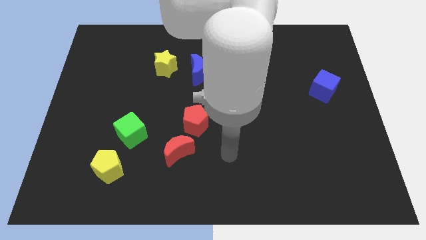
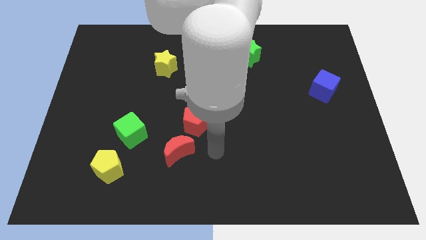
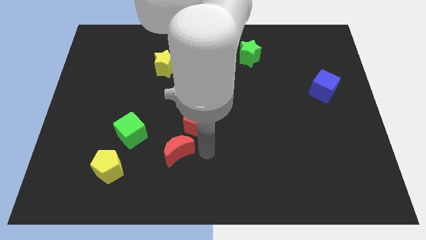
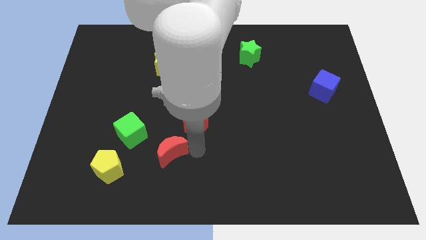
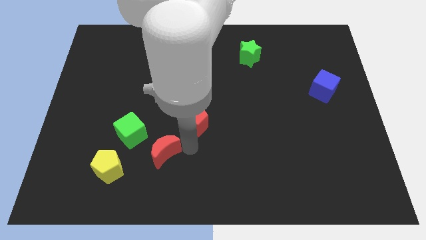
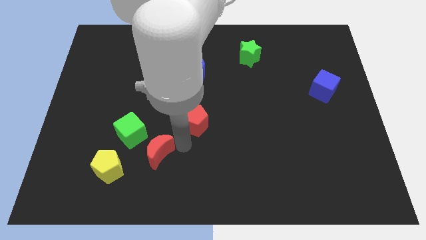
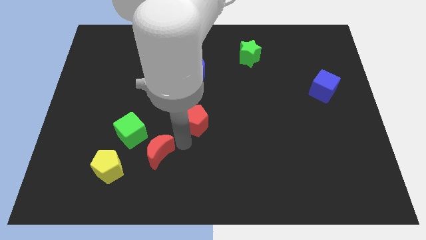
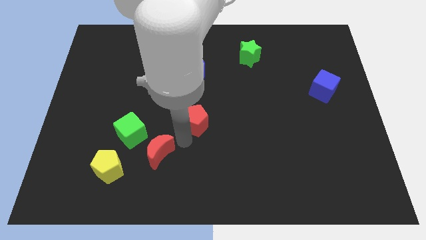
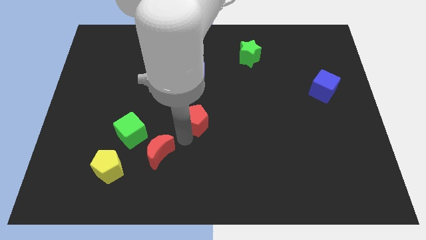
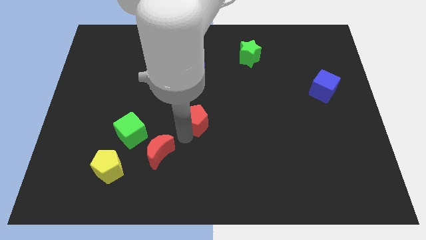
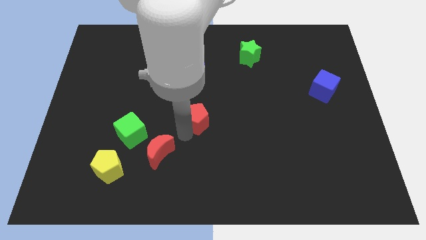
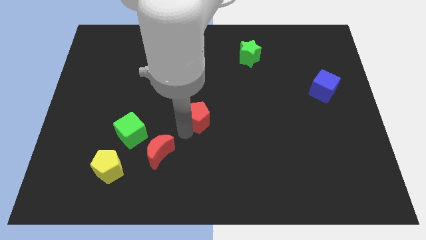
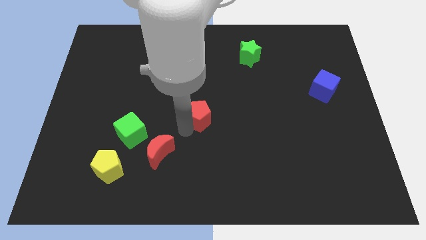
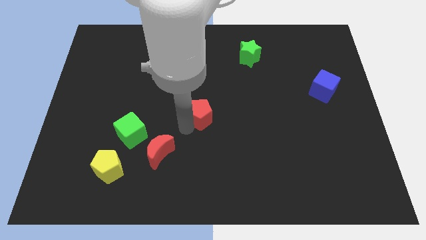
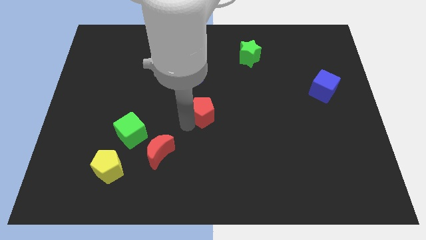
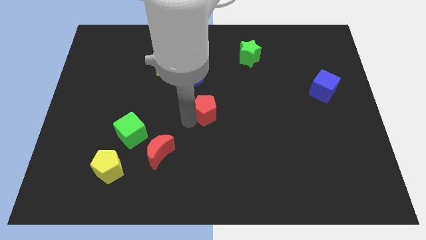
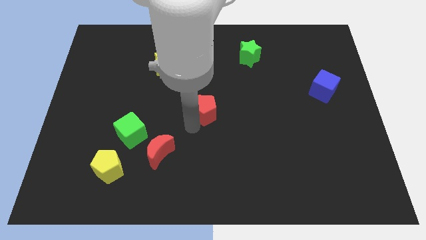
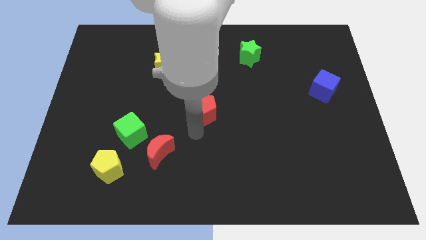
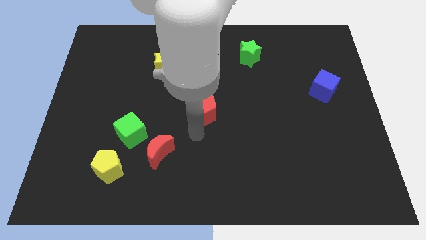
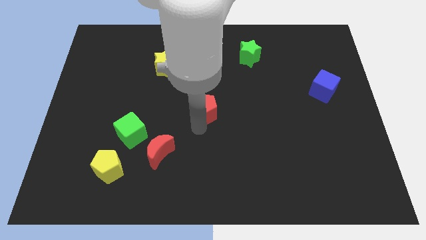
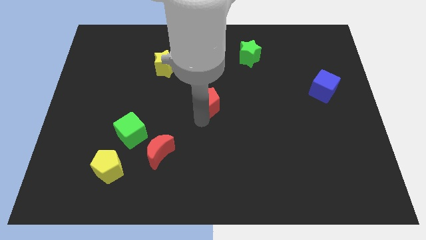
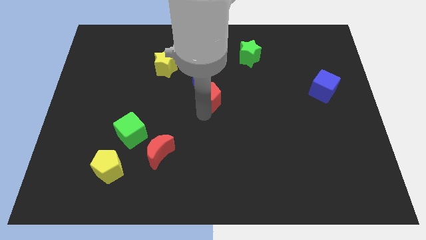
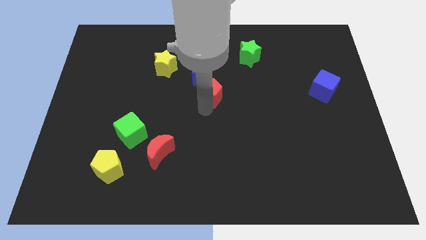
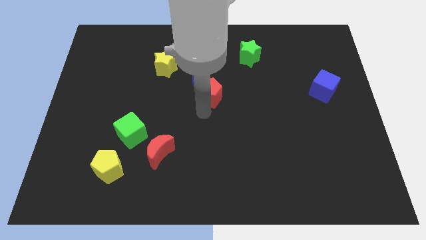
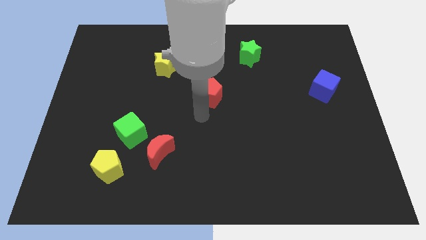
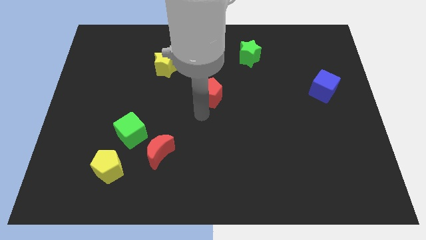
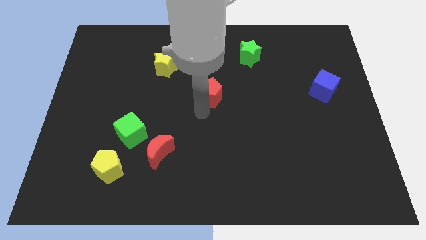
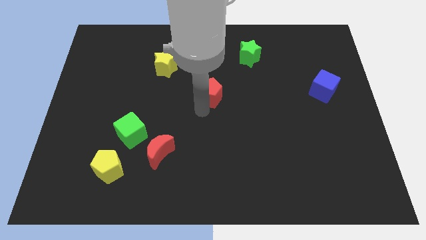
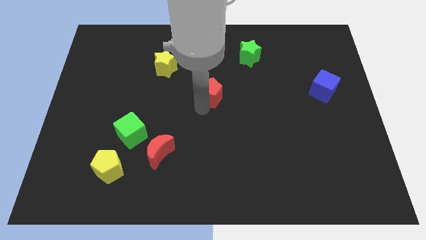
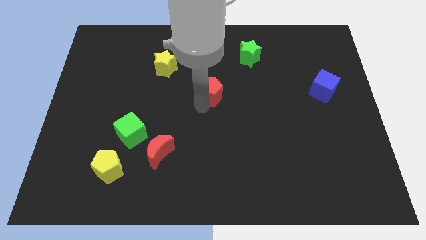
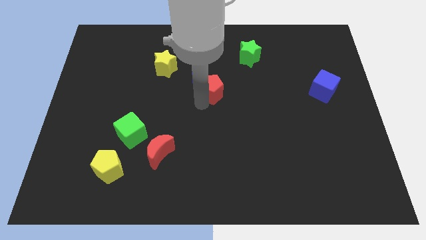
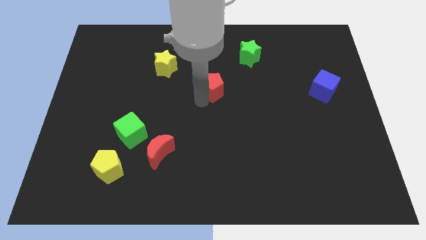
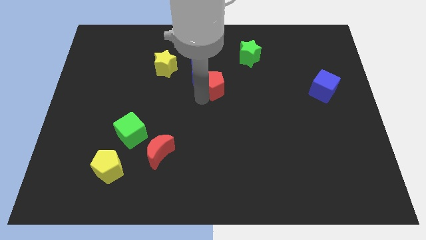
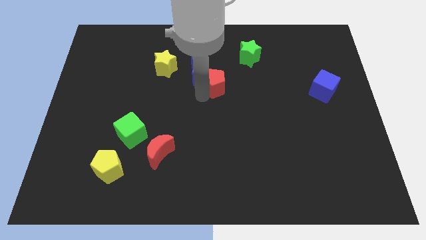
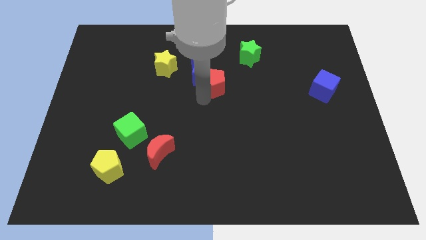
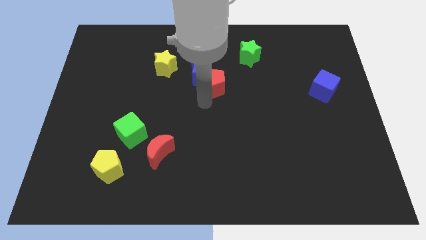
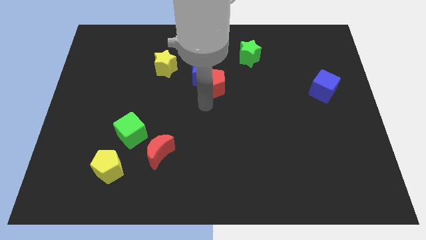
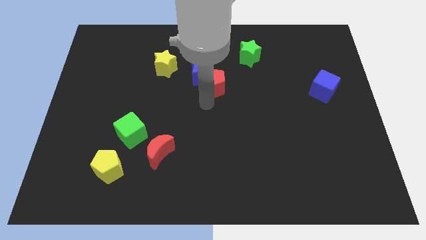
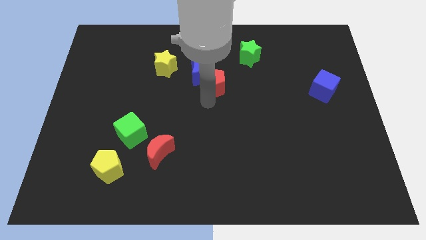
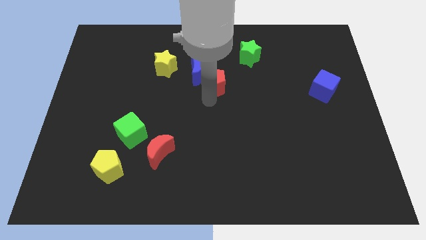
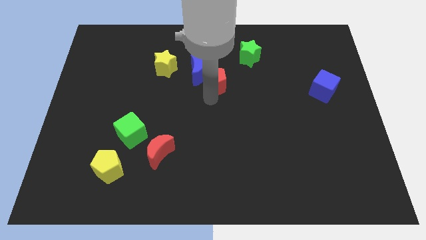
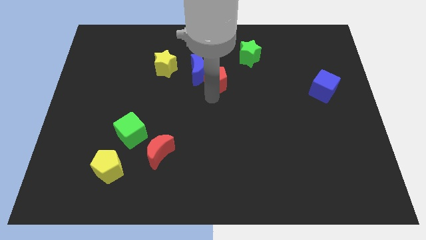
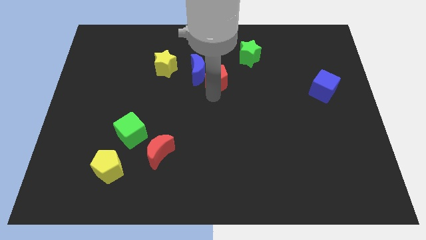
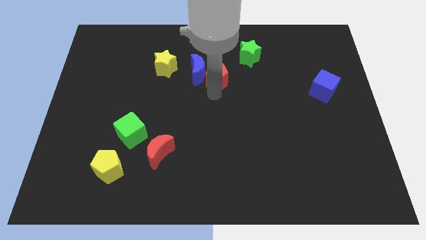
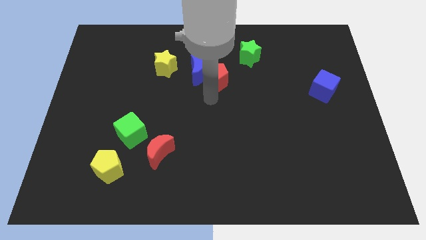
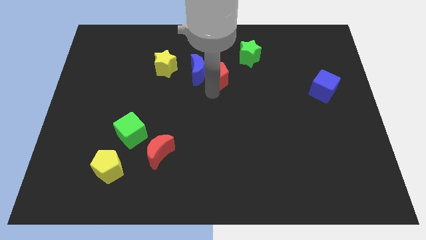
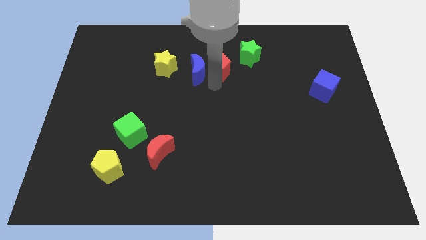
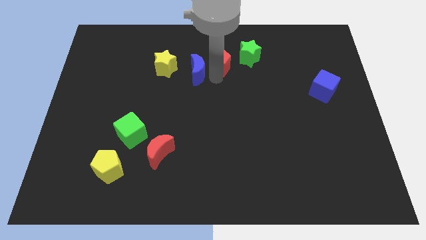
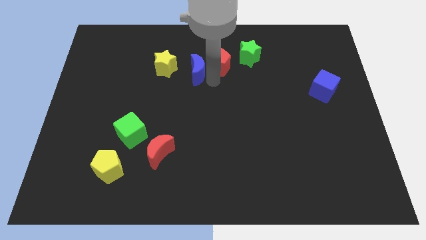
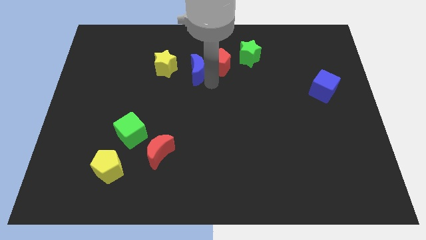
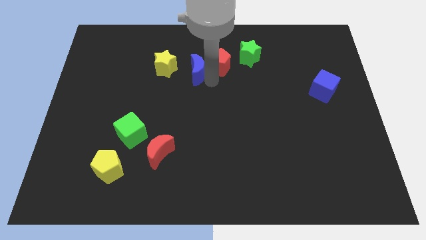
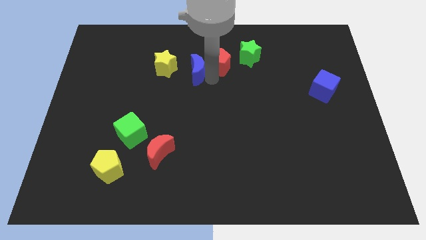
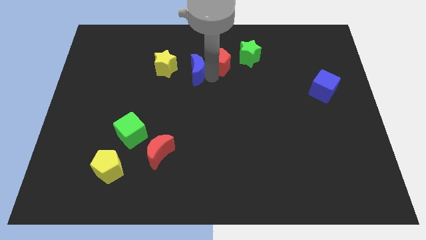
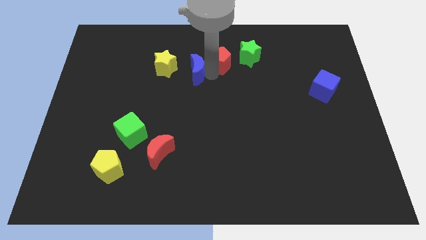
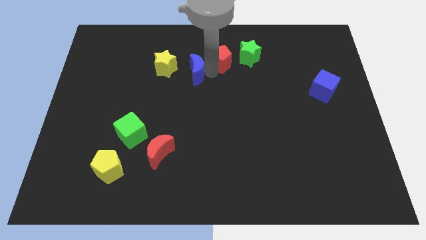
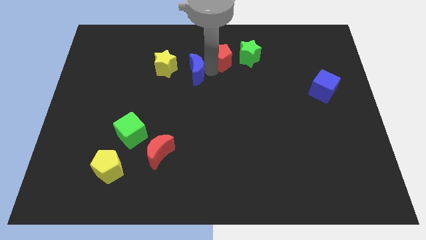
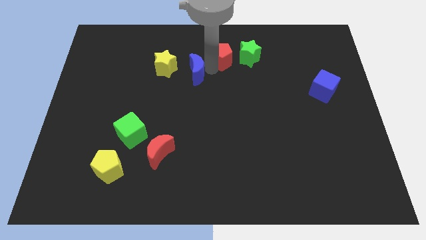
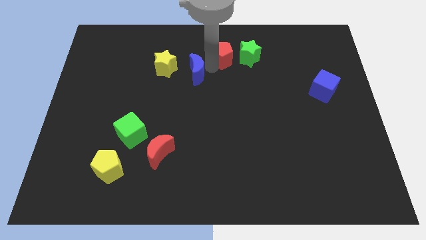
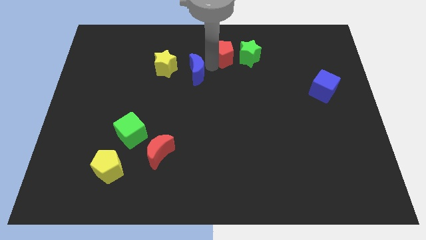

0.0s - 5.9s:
put the red pentagon to the top

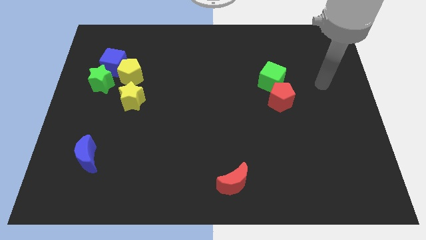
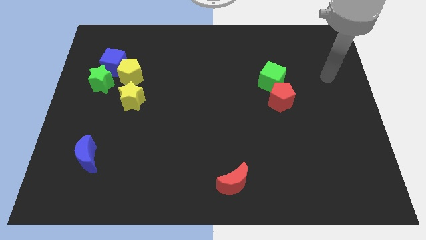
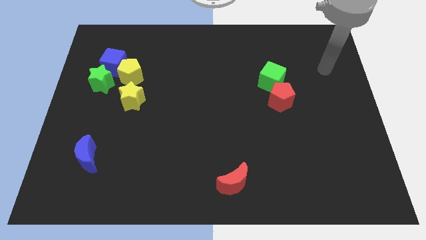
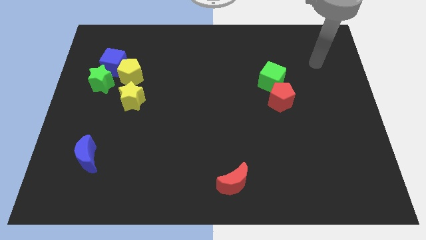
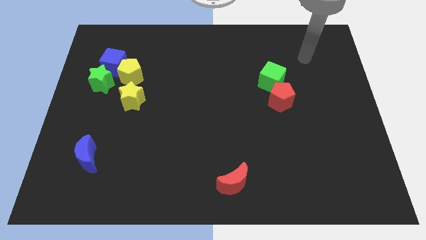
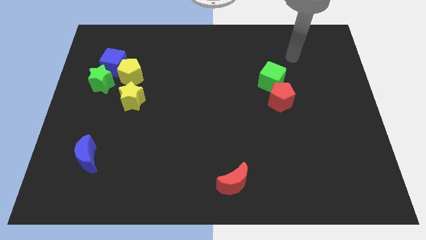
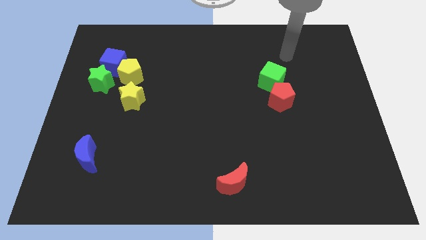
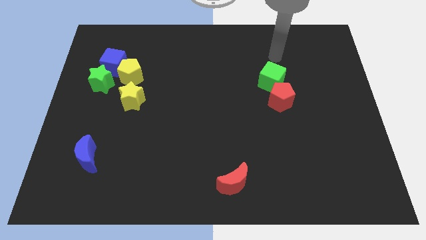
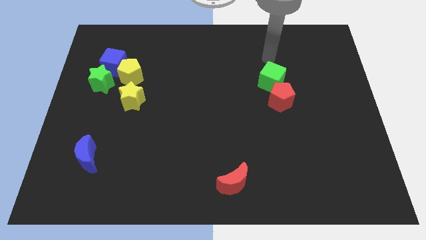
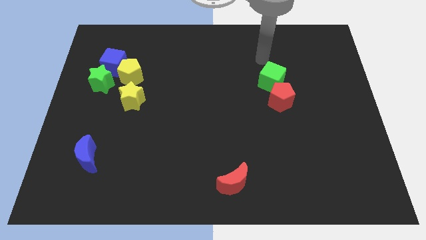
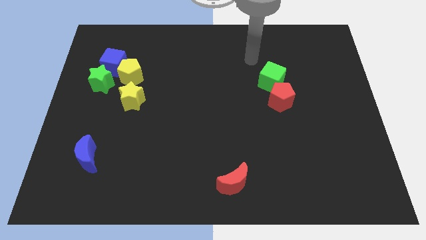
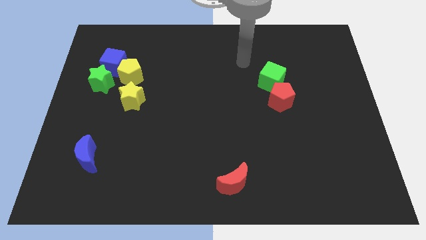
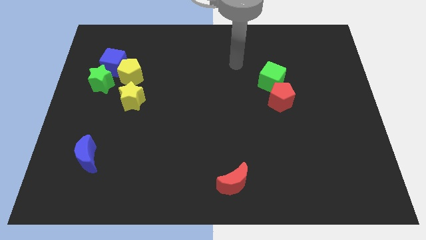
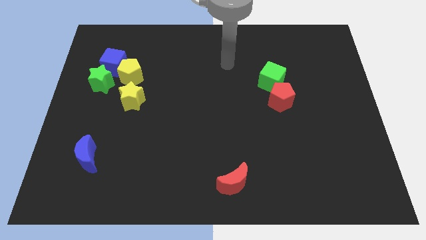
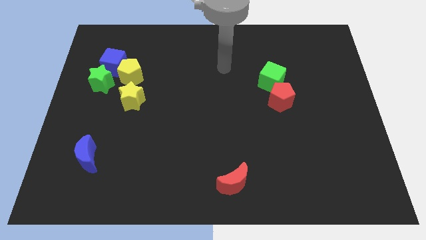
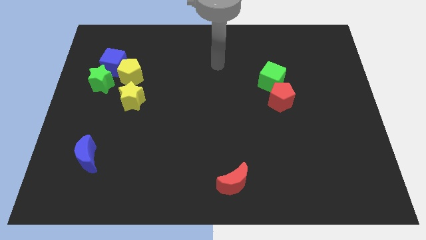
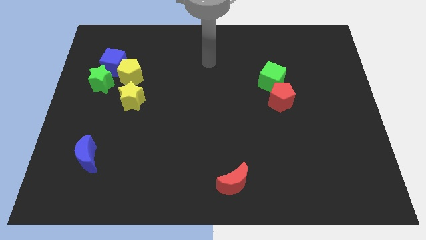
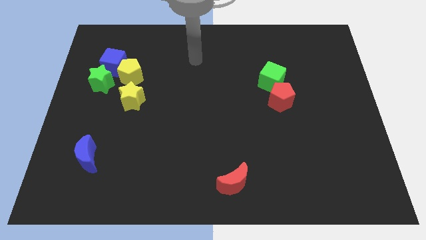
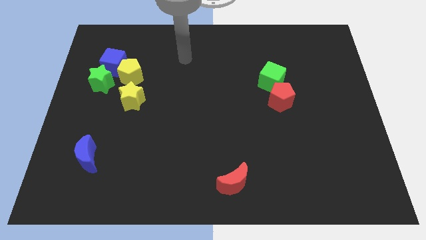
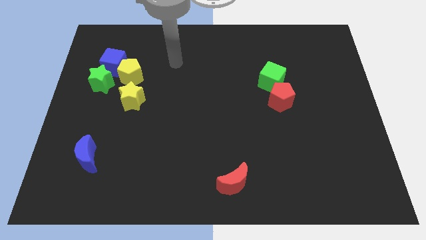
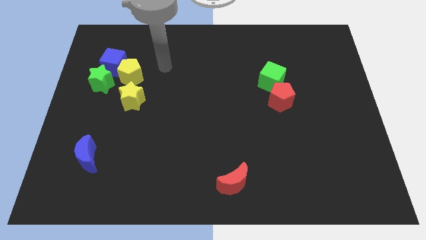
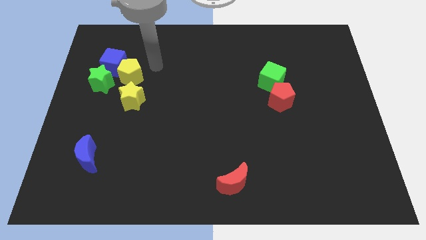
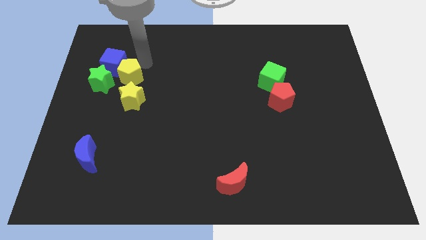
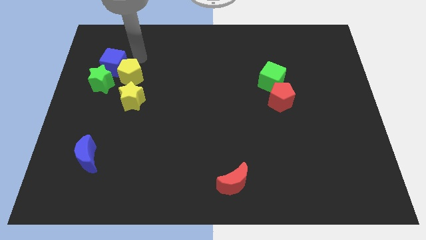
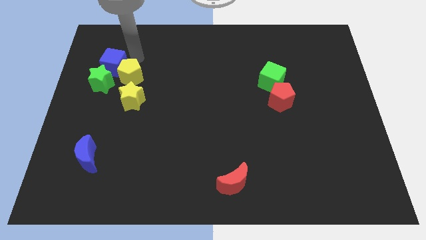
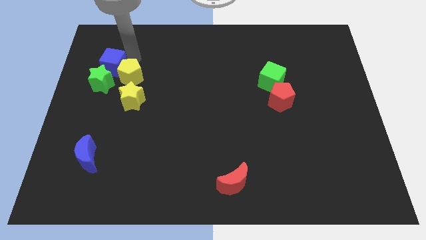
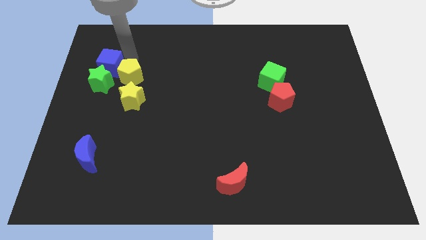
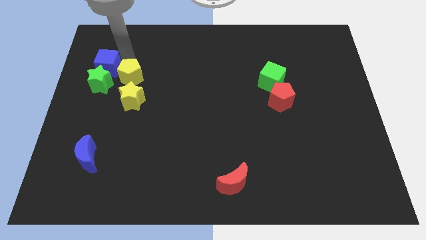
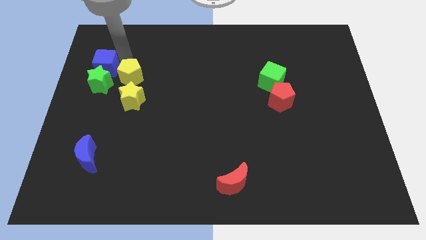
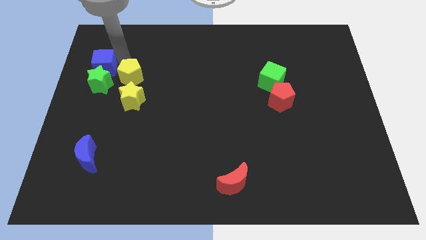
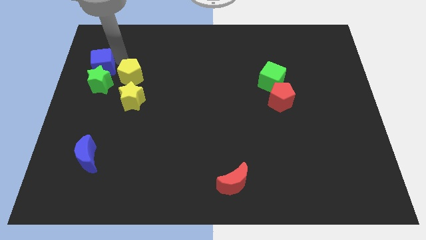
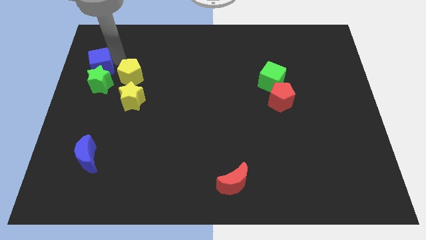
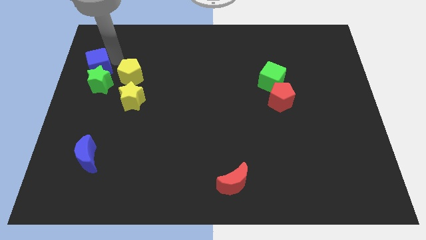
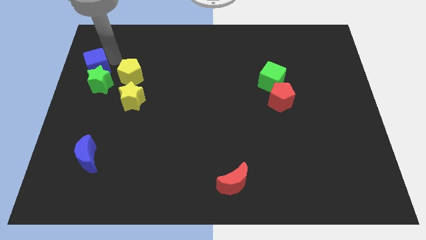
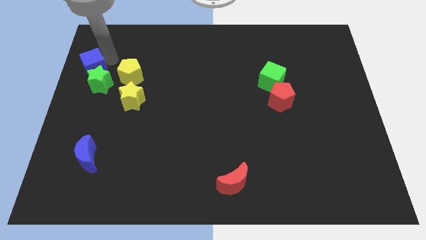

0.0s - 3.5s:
move the blue cube to the left side
